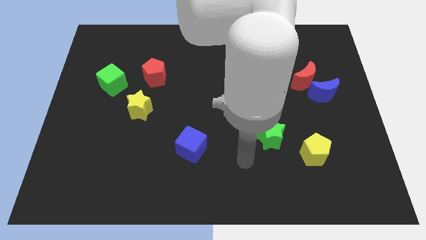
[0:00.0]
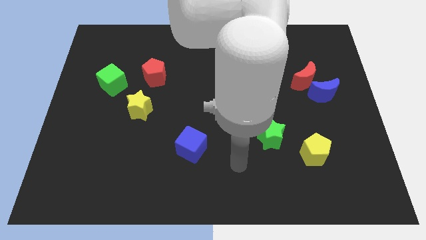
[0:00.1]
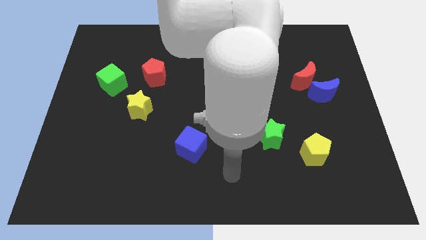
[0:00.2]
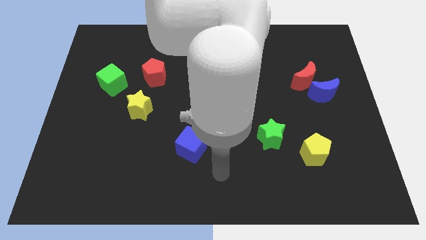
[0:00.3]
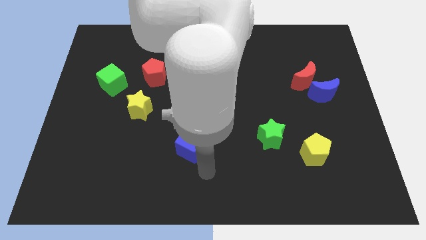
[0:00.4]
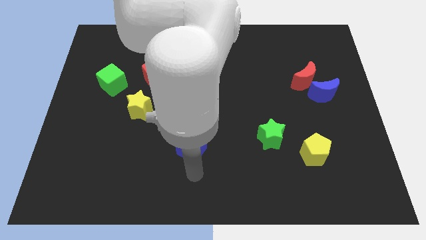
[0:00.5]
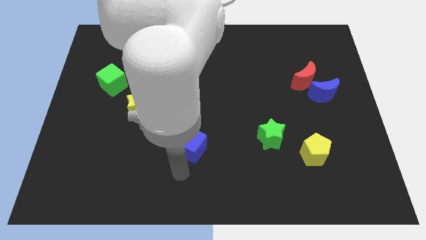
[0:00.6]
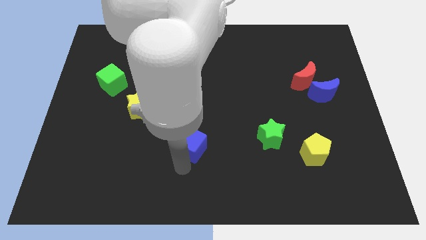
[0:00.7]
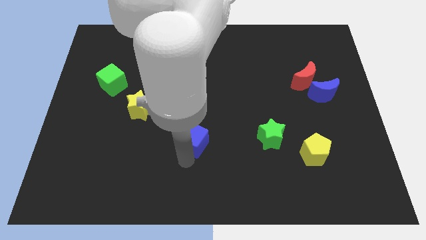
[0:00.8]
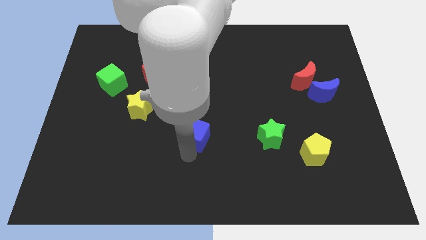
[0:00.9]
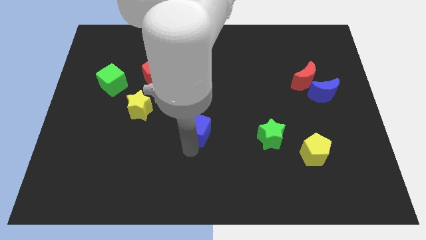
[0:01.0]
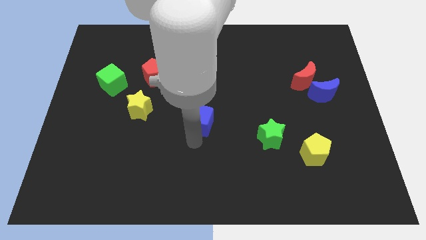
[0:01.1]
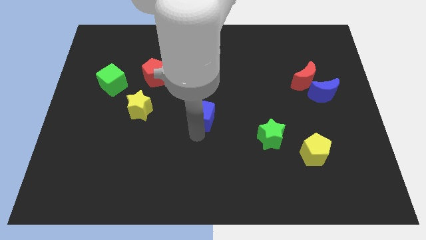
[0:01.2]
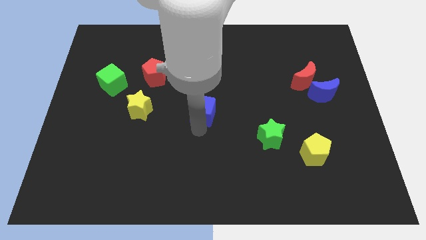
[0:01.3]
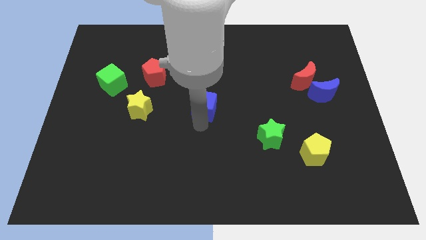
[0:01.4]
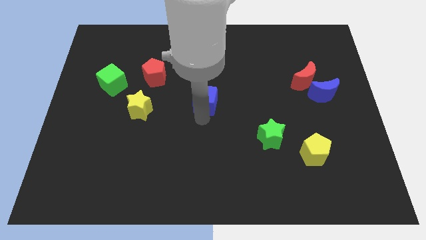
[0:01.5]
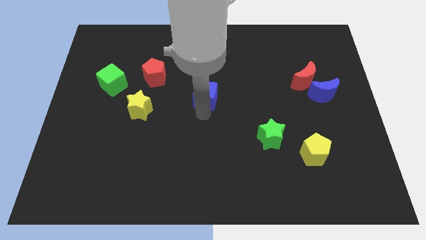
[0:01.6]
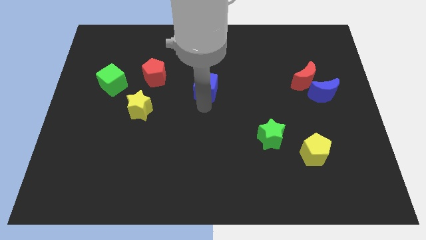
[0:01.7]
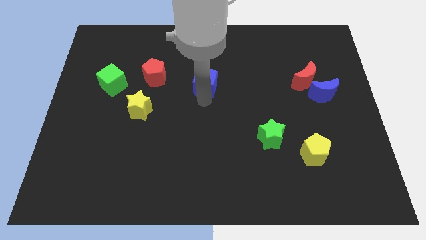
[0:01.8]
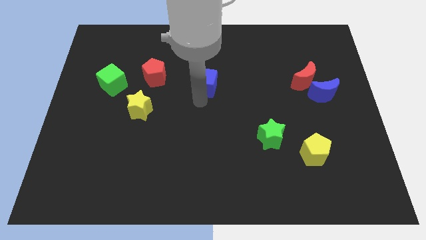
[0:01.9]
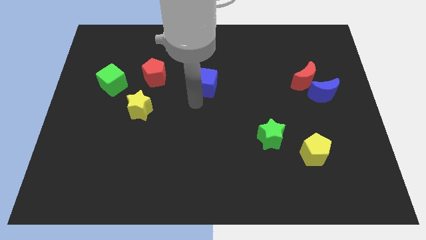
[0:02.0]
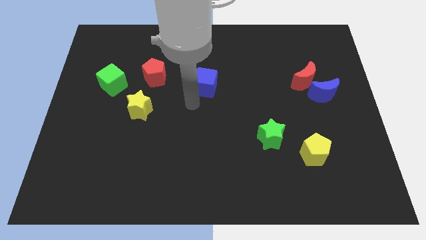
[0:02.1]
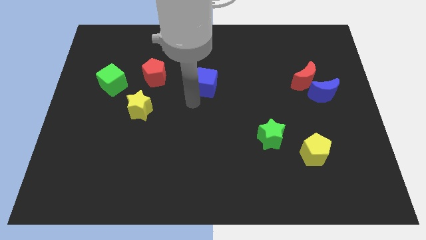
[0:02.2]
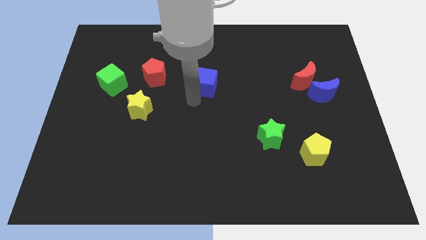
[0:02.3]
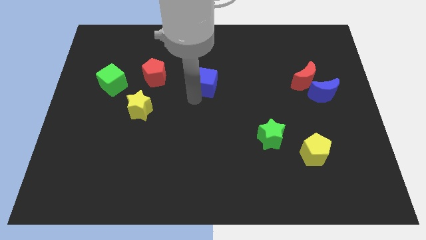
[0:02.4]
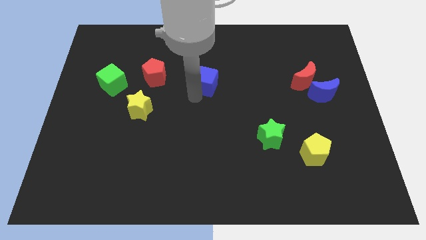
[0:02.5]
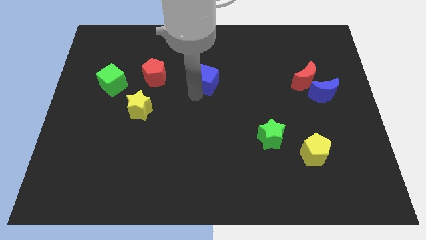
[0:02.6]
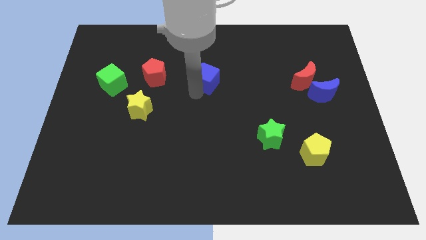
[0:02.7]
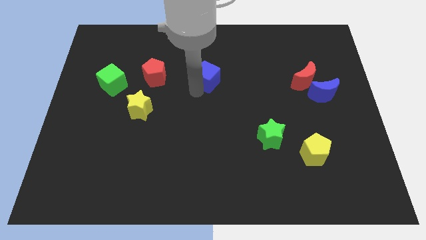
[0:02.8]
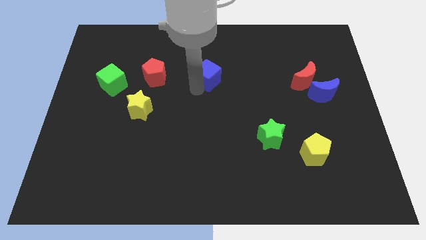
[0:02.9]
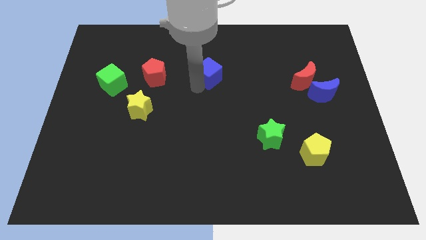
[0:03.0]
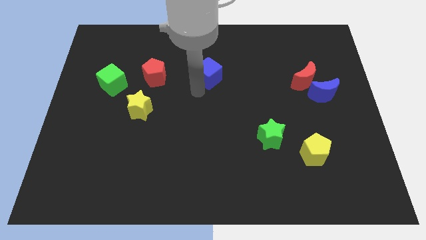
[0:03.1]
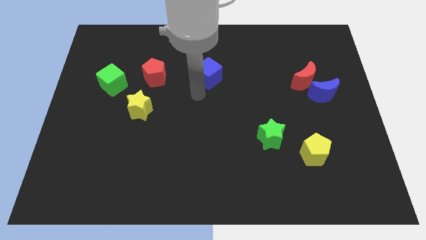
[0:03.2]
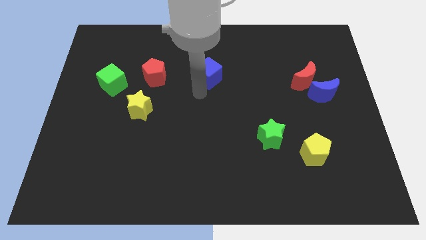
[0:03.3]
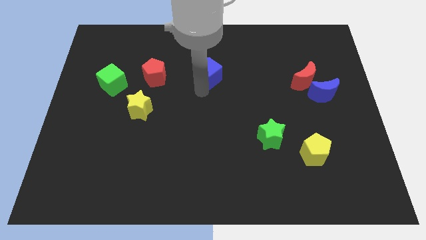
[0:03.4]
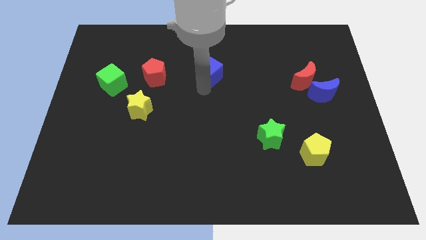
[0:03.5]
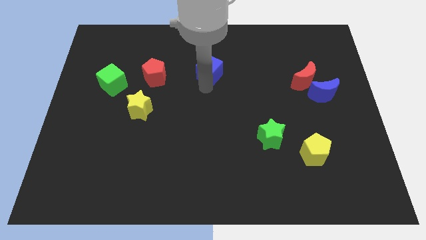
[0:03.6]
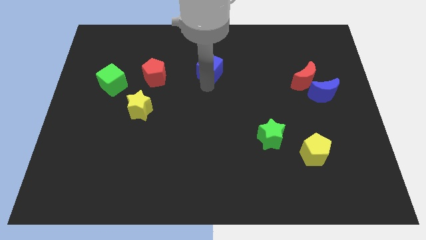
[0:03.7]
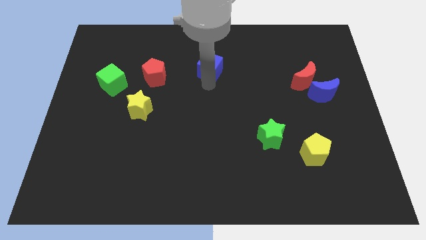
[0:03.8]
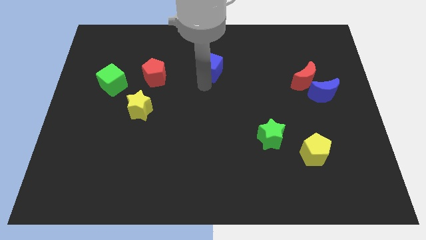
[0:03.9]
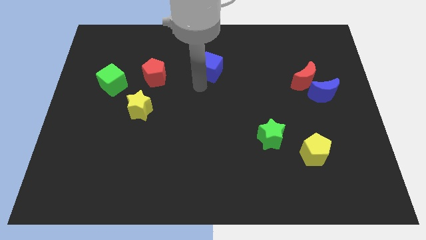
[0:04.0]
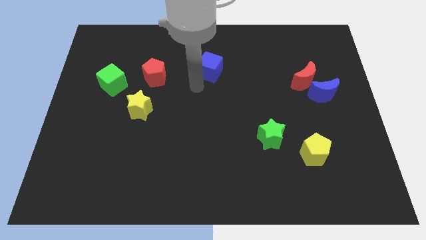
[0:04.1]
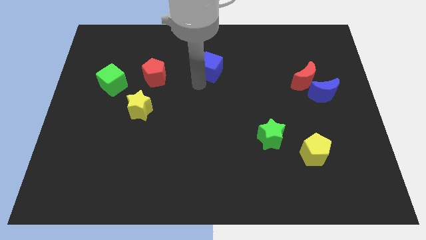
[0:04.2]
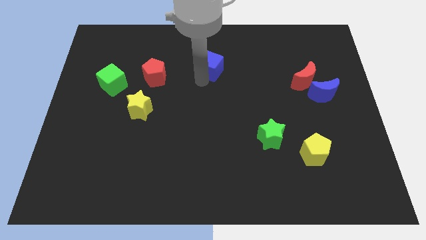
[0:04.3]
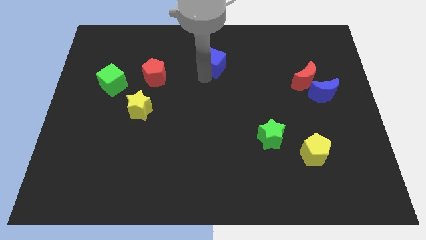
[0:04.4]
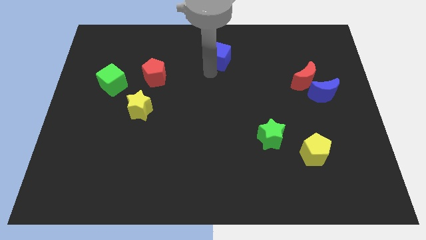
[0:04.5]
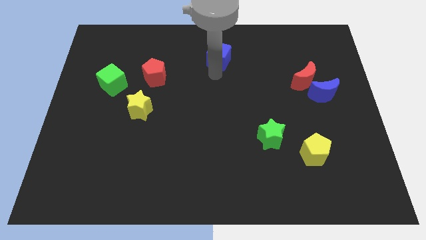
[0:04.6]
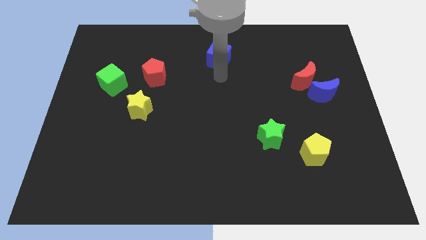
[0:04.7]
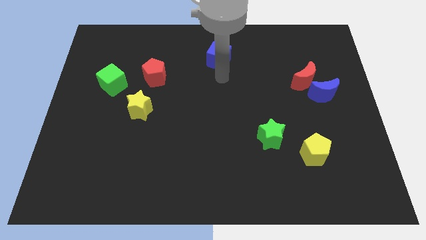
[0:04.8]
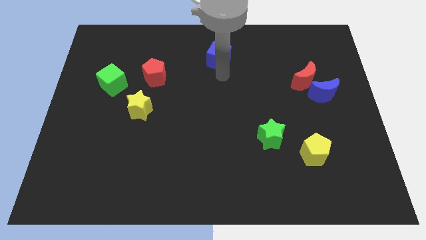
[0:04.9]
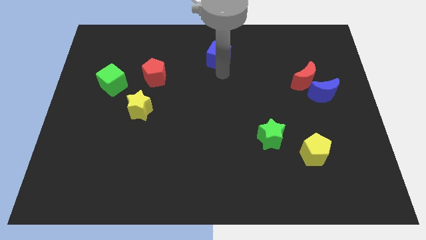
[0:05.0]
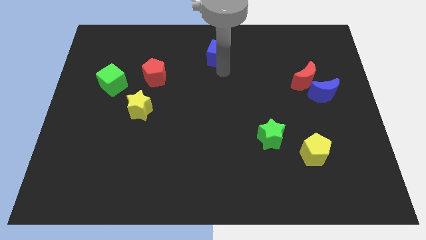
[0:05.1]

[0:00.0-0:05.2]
slide the blue cube to the top

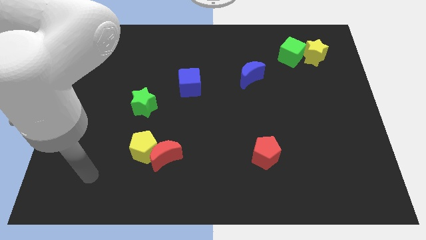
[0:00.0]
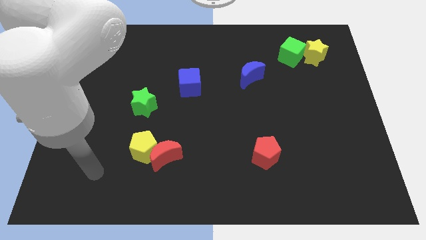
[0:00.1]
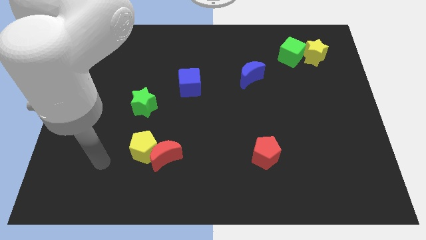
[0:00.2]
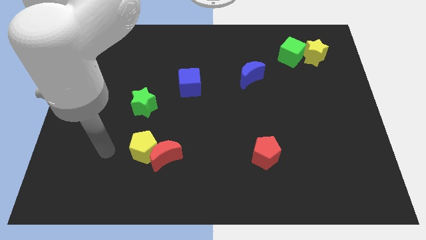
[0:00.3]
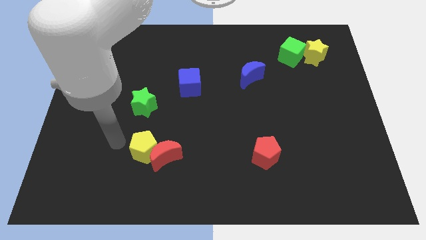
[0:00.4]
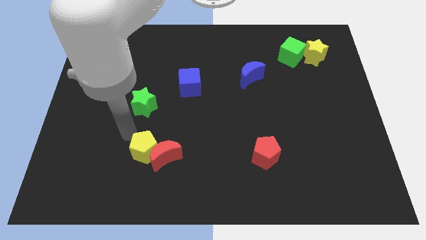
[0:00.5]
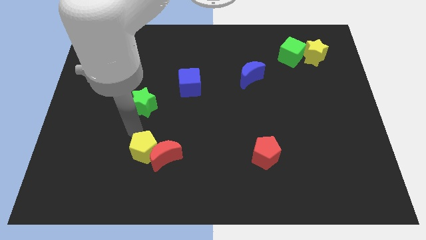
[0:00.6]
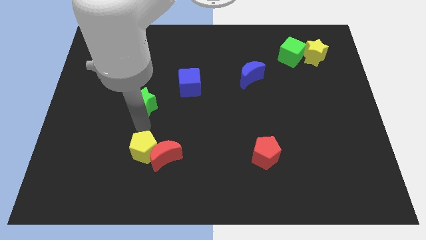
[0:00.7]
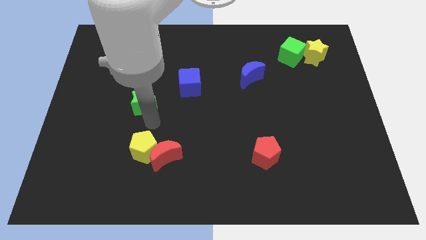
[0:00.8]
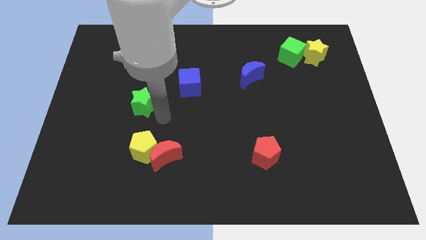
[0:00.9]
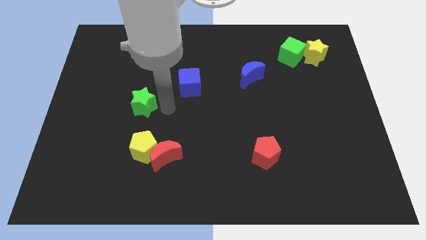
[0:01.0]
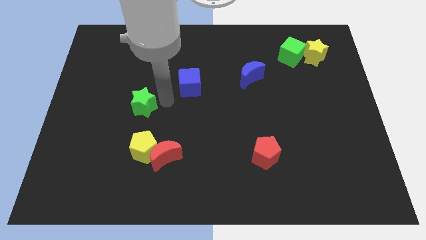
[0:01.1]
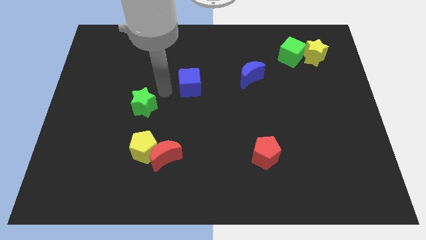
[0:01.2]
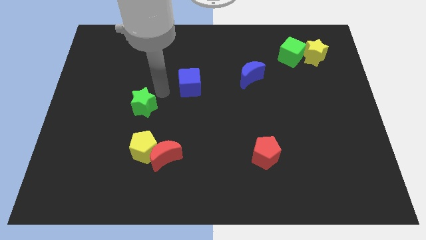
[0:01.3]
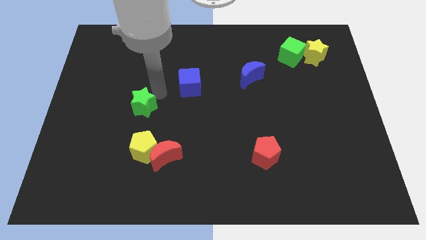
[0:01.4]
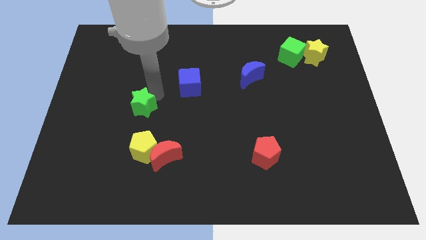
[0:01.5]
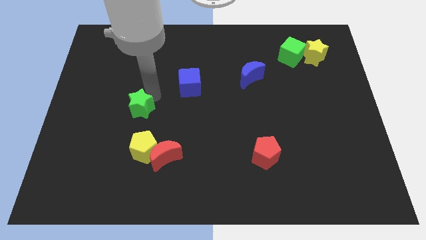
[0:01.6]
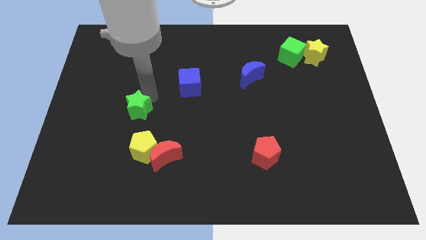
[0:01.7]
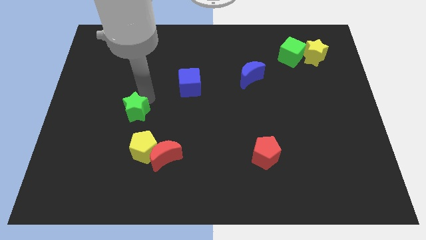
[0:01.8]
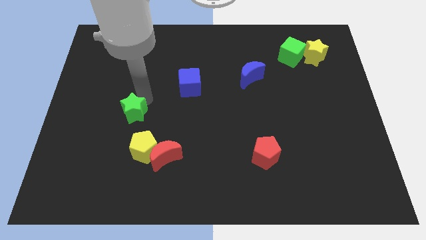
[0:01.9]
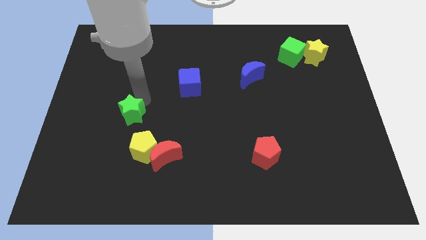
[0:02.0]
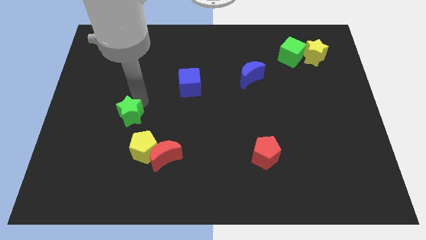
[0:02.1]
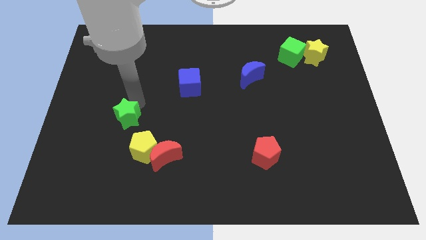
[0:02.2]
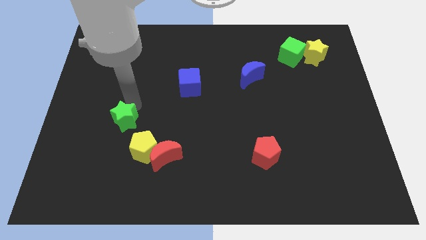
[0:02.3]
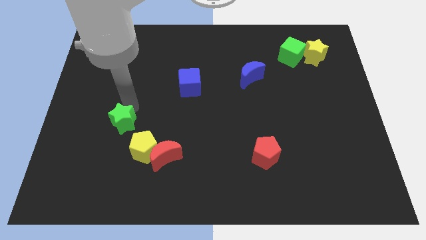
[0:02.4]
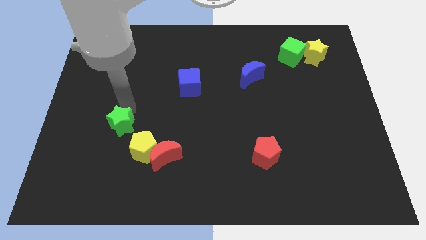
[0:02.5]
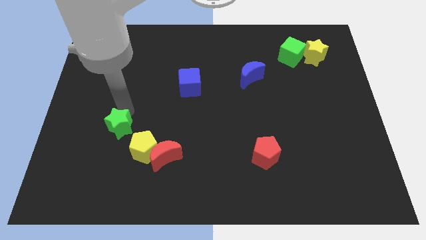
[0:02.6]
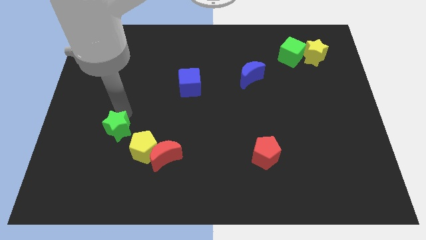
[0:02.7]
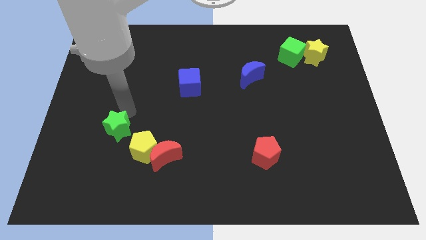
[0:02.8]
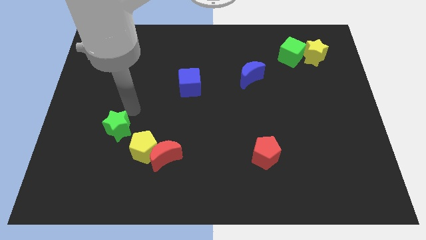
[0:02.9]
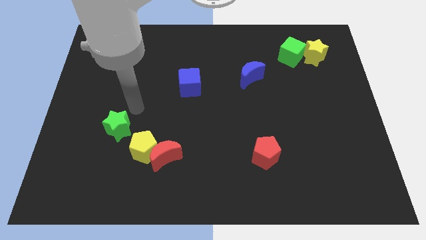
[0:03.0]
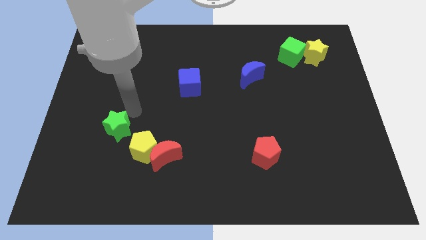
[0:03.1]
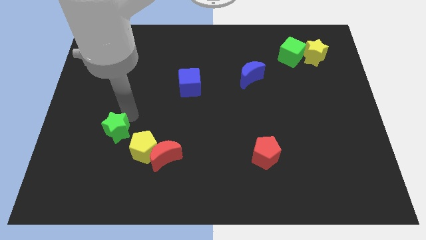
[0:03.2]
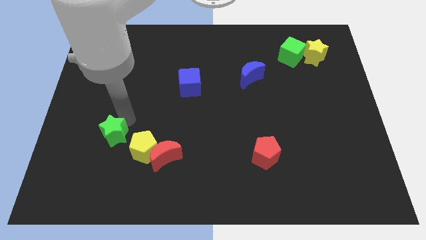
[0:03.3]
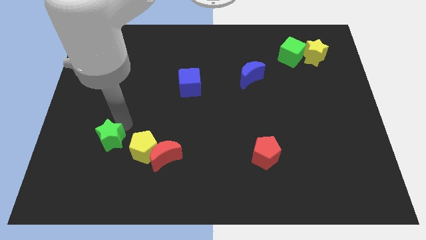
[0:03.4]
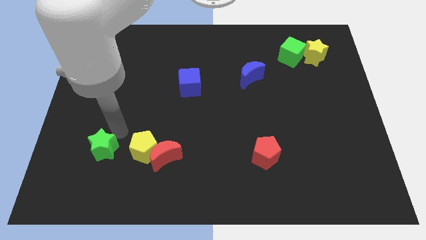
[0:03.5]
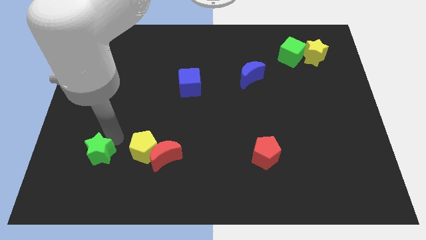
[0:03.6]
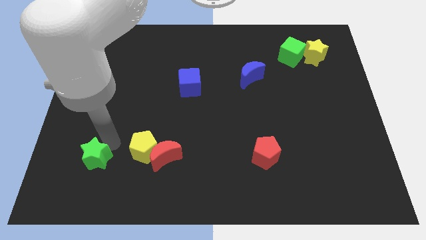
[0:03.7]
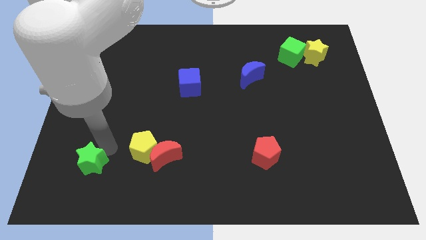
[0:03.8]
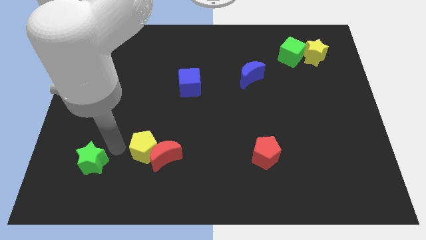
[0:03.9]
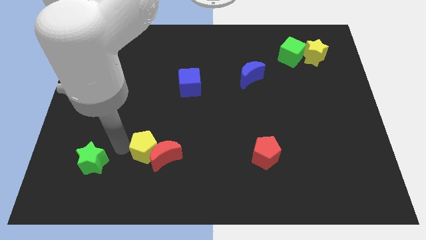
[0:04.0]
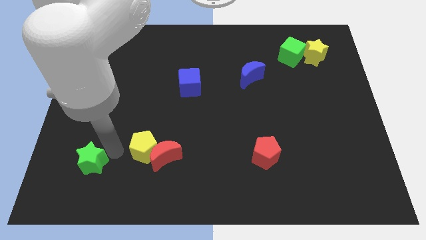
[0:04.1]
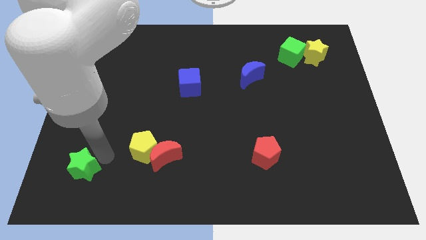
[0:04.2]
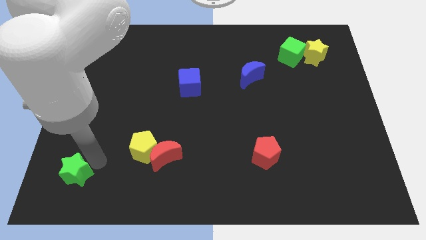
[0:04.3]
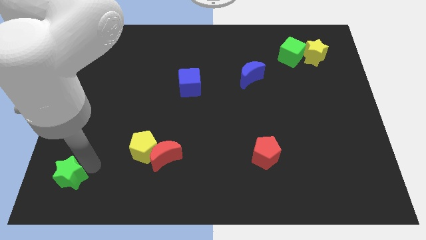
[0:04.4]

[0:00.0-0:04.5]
slide the green star to the lower left corner
